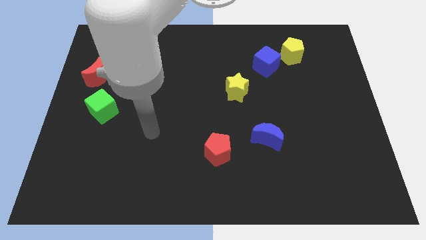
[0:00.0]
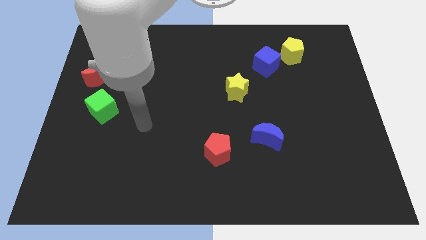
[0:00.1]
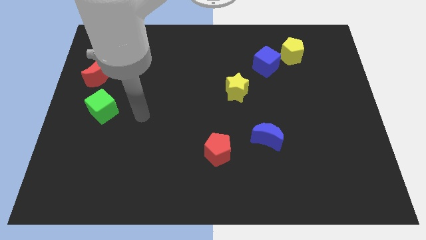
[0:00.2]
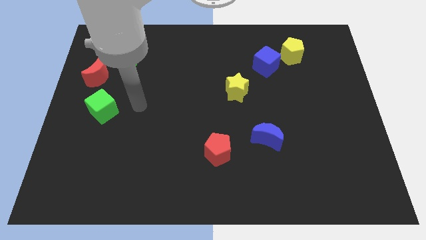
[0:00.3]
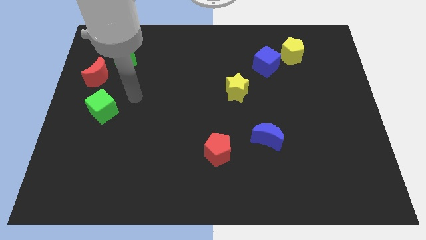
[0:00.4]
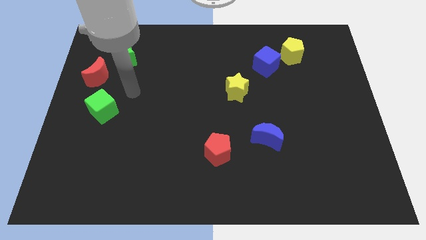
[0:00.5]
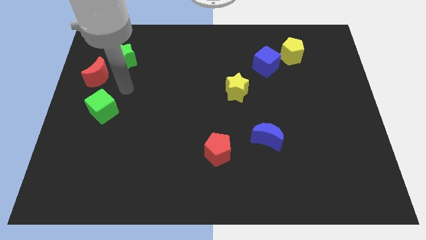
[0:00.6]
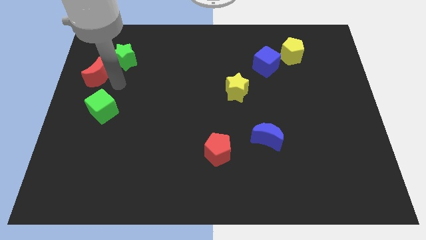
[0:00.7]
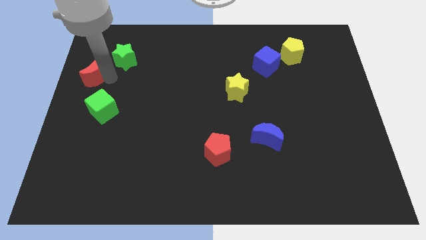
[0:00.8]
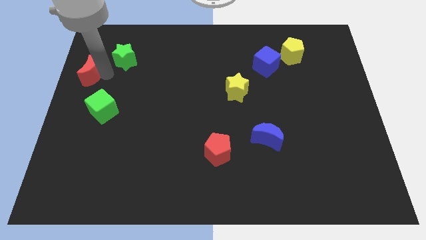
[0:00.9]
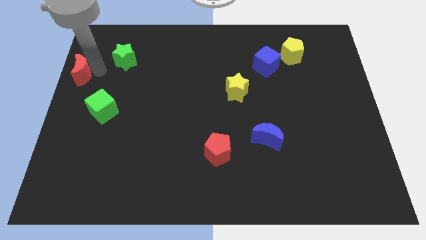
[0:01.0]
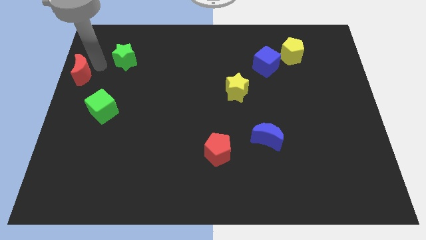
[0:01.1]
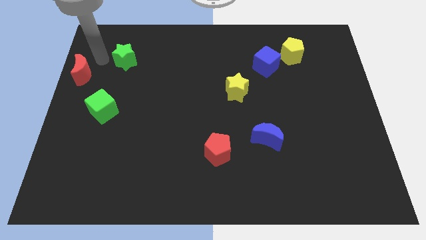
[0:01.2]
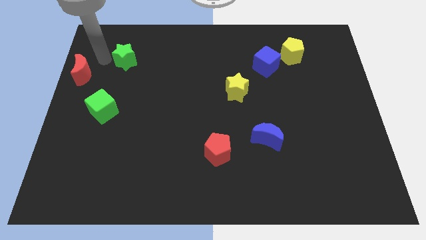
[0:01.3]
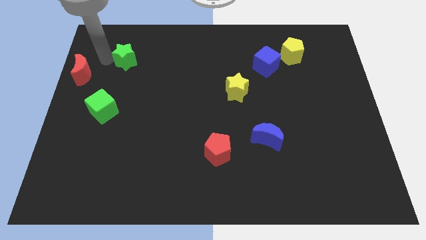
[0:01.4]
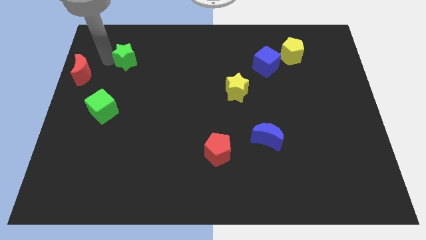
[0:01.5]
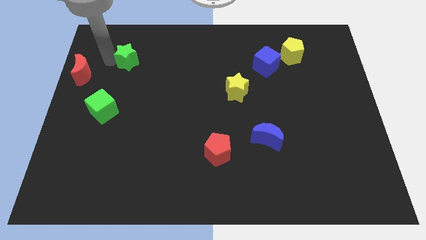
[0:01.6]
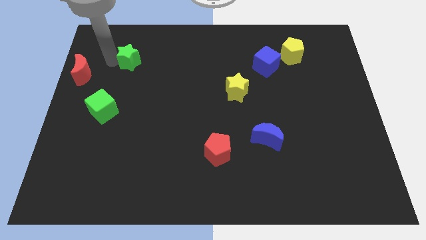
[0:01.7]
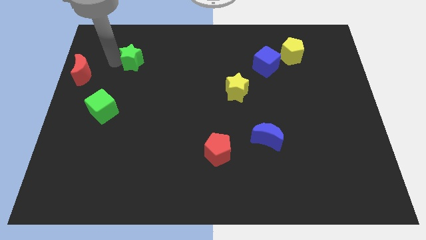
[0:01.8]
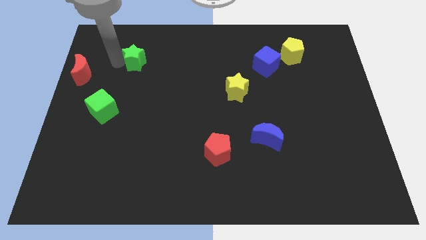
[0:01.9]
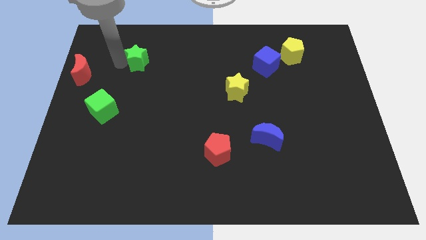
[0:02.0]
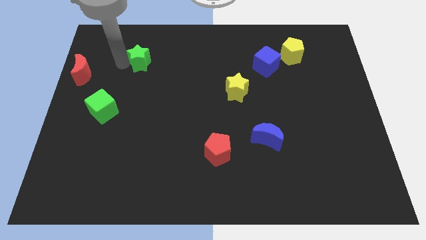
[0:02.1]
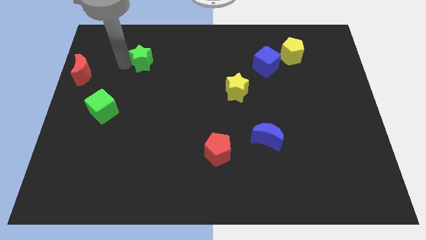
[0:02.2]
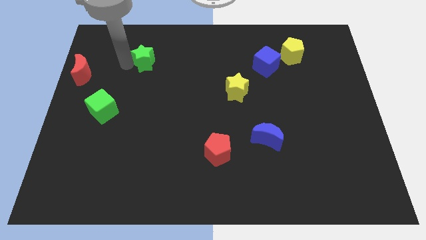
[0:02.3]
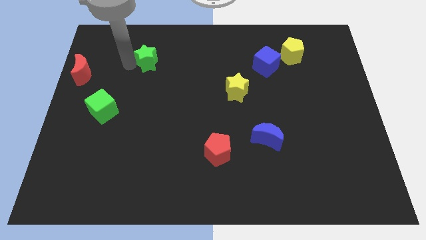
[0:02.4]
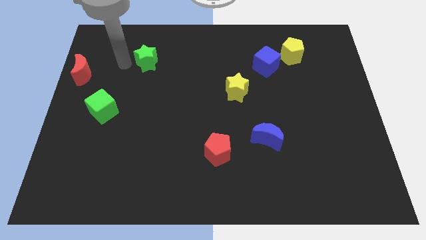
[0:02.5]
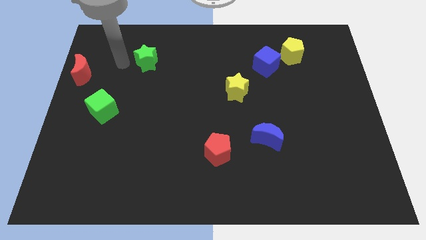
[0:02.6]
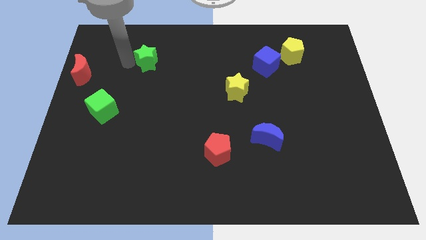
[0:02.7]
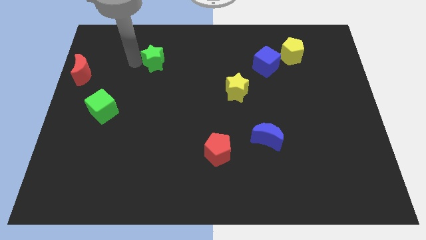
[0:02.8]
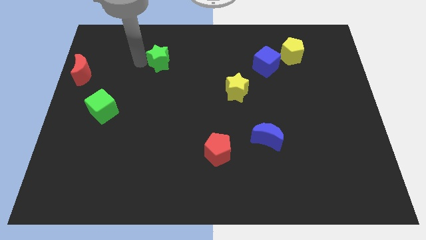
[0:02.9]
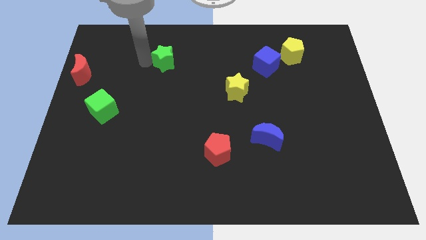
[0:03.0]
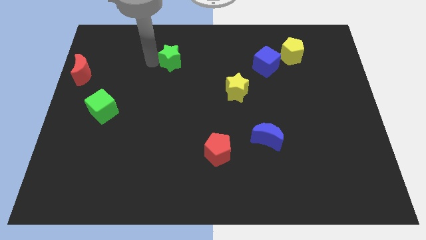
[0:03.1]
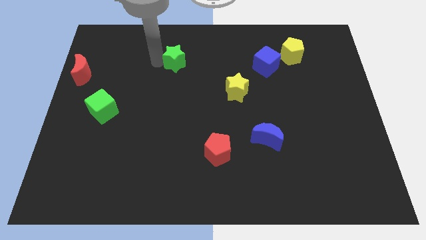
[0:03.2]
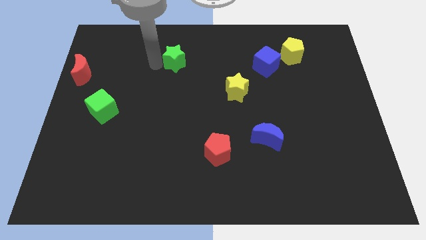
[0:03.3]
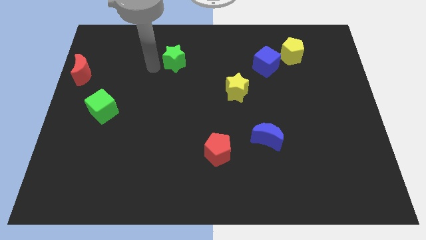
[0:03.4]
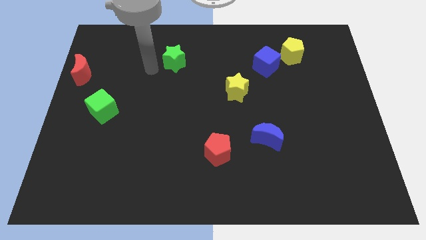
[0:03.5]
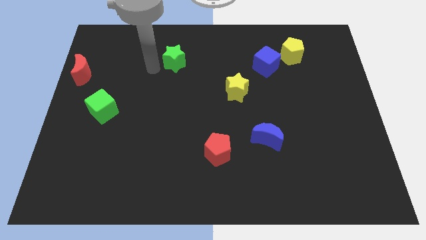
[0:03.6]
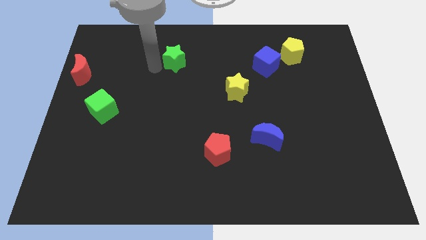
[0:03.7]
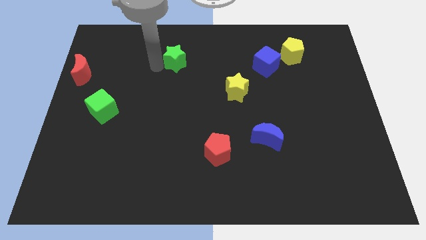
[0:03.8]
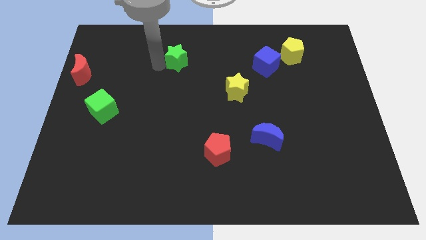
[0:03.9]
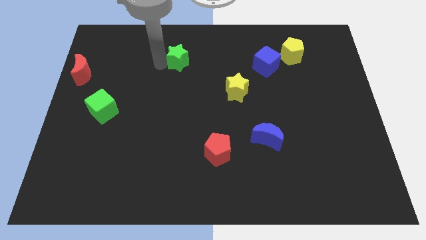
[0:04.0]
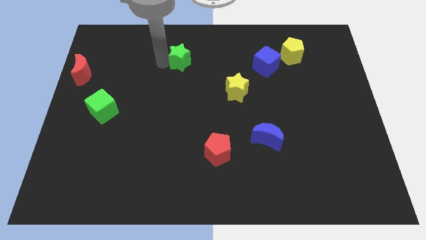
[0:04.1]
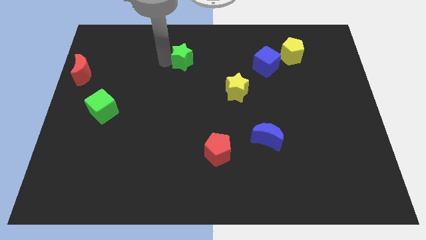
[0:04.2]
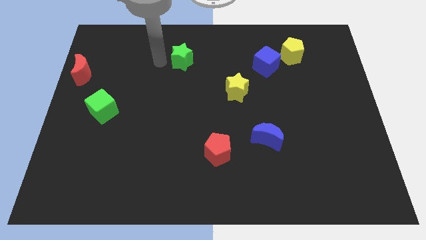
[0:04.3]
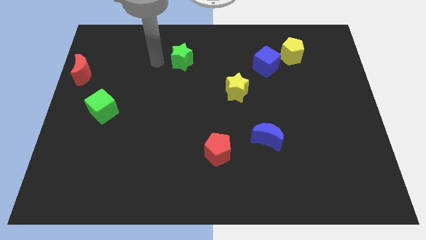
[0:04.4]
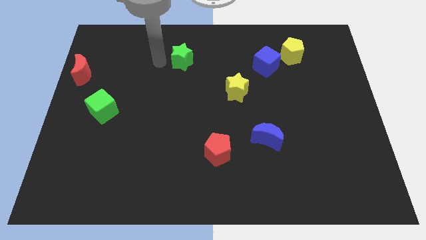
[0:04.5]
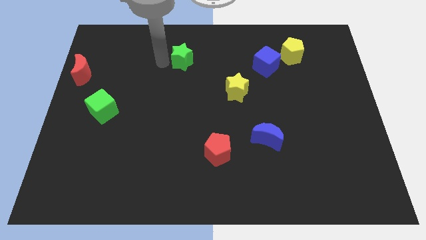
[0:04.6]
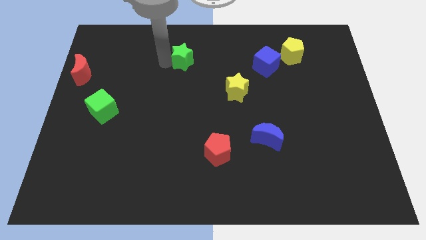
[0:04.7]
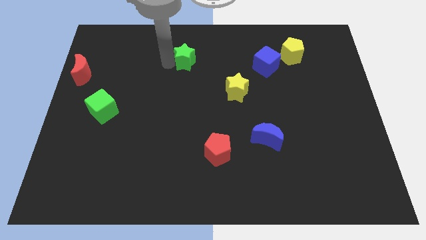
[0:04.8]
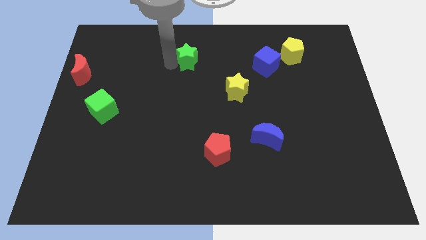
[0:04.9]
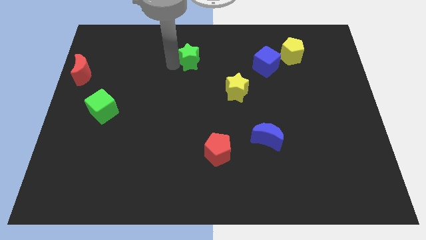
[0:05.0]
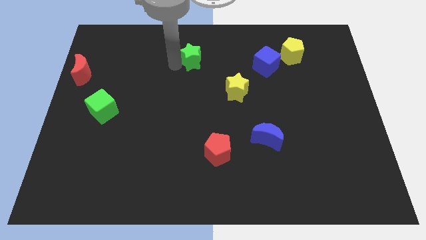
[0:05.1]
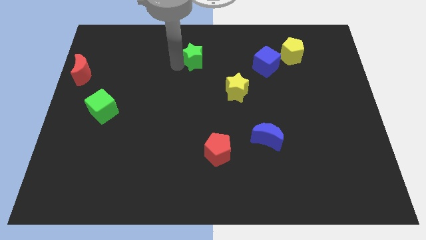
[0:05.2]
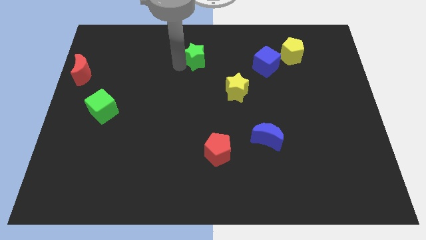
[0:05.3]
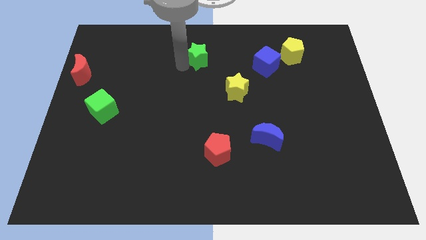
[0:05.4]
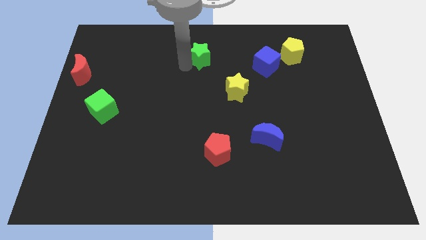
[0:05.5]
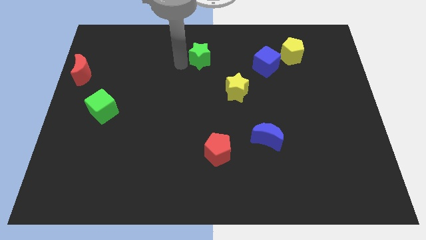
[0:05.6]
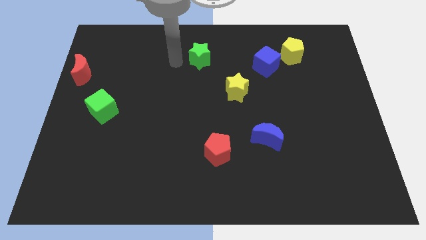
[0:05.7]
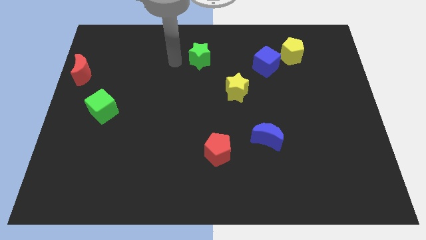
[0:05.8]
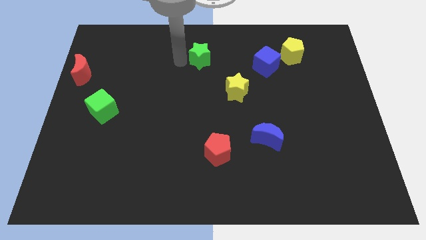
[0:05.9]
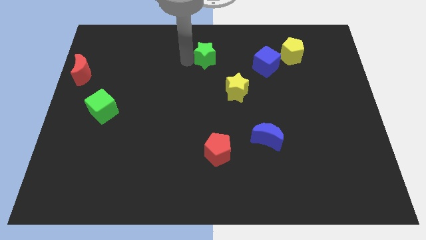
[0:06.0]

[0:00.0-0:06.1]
push the green star to the right

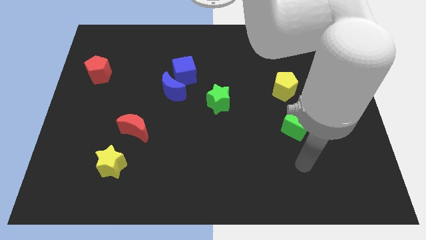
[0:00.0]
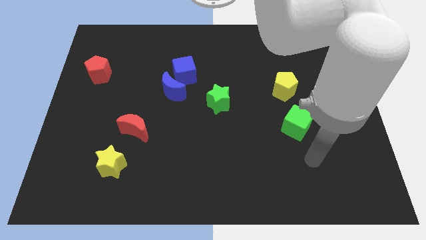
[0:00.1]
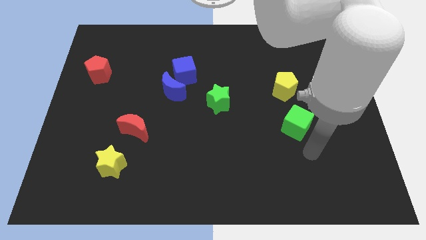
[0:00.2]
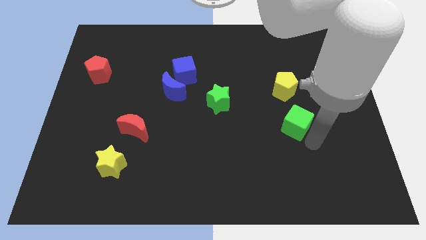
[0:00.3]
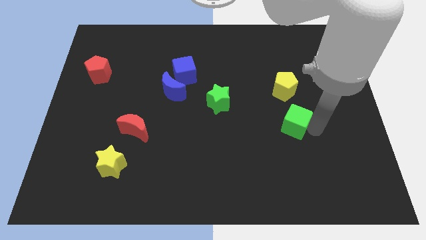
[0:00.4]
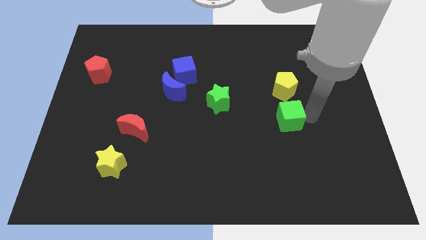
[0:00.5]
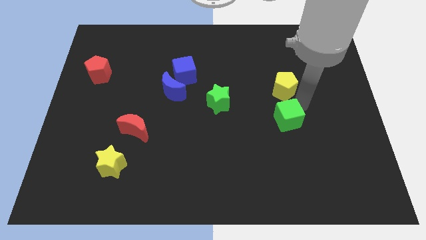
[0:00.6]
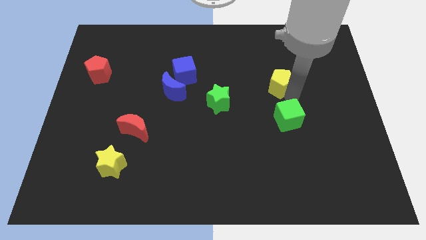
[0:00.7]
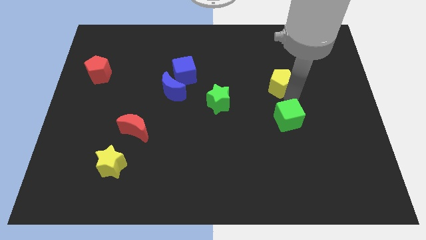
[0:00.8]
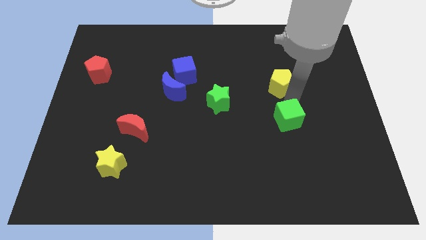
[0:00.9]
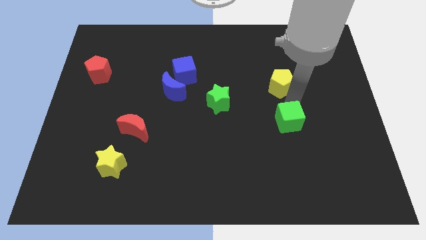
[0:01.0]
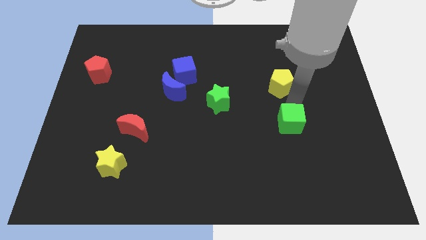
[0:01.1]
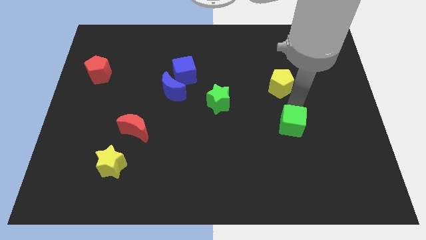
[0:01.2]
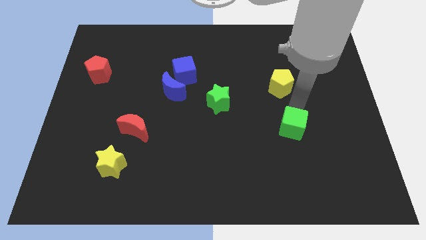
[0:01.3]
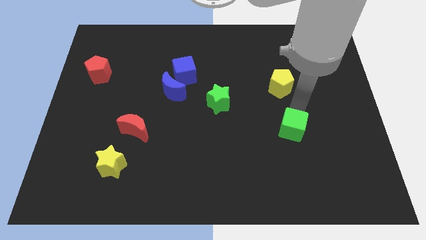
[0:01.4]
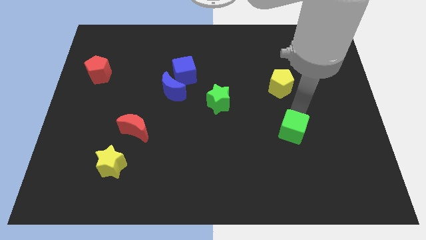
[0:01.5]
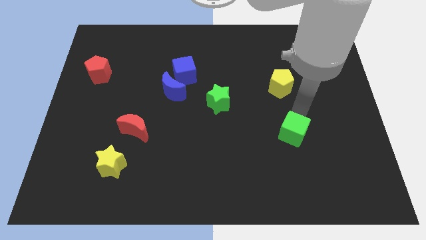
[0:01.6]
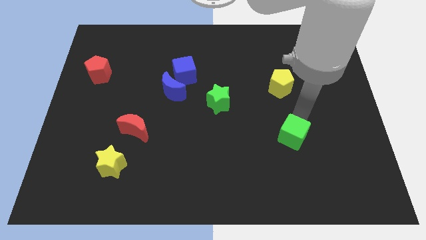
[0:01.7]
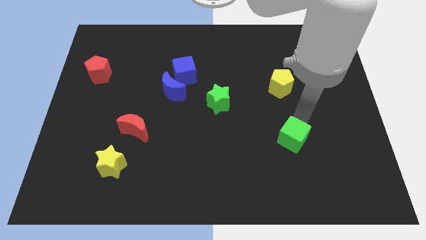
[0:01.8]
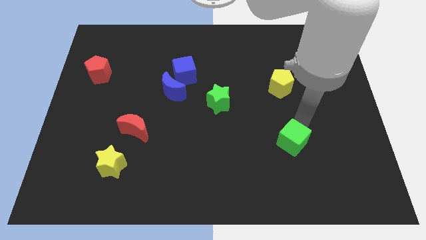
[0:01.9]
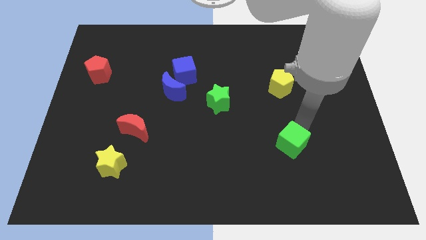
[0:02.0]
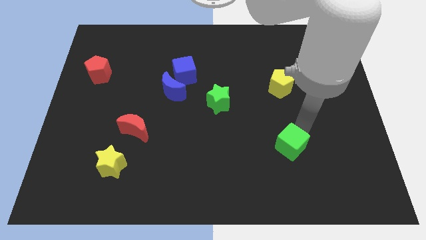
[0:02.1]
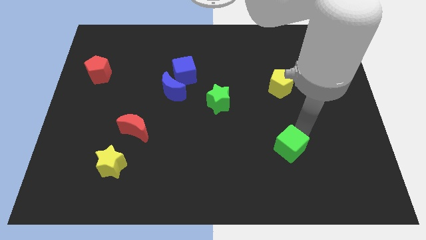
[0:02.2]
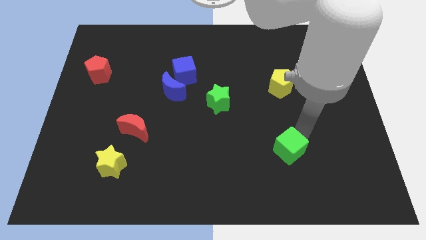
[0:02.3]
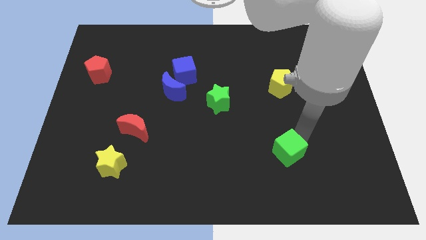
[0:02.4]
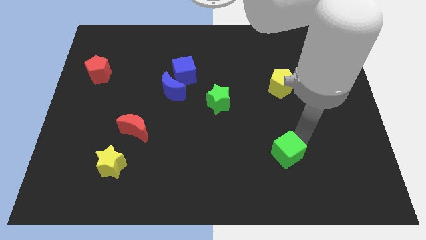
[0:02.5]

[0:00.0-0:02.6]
move the green cube a little diagonally downwards and left
